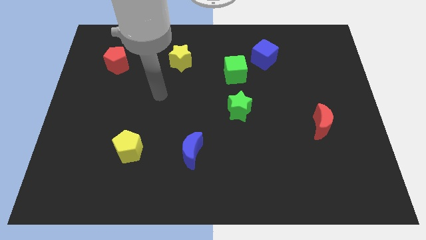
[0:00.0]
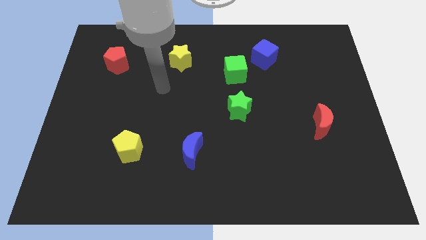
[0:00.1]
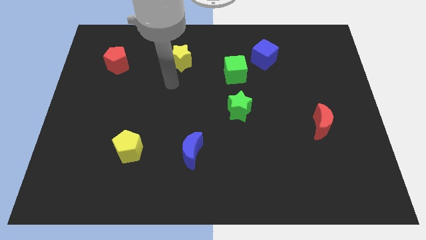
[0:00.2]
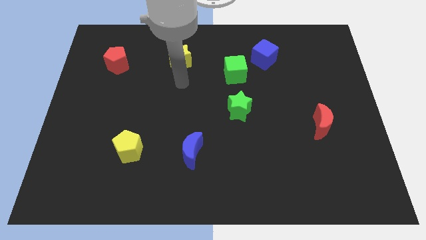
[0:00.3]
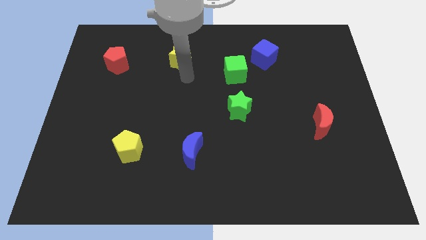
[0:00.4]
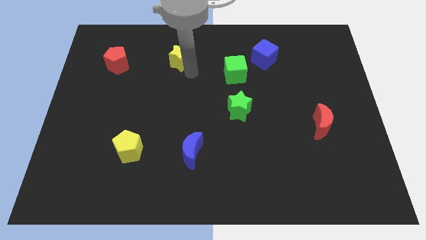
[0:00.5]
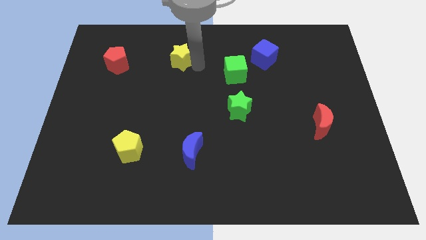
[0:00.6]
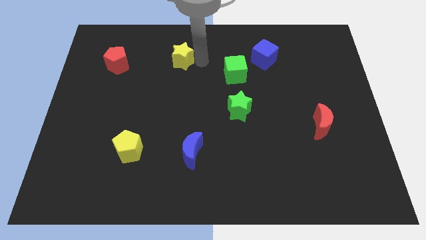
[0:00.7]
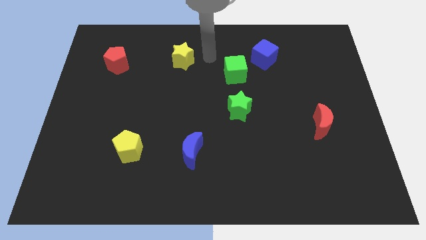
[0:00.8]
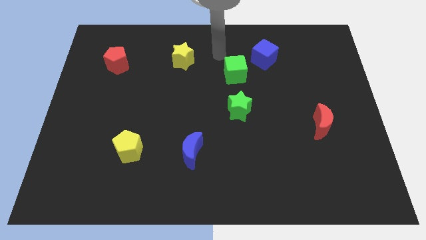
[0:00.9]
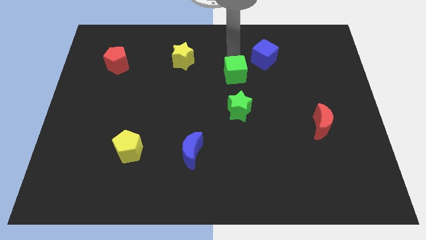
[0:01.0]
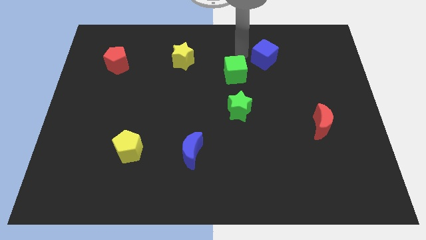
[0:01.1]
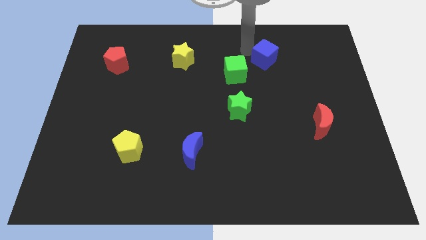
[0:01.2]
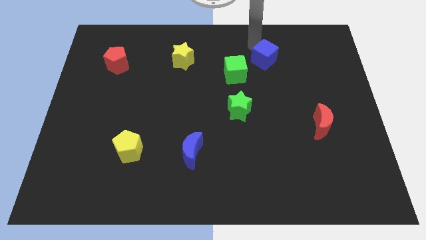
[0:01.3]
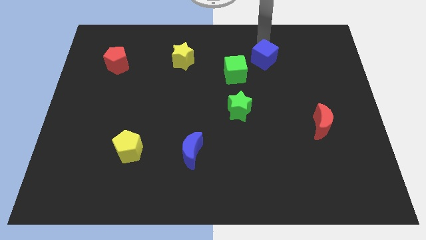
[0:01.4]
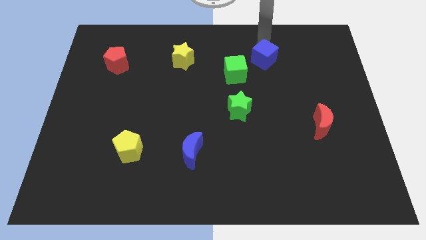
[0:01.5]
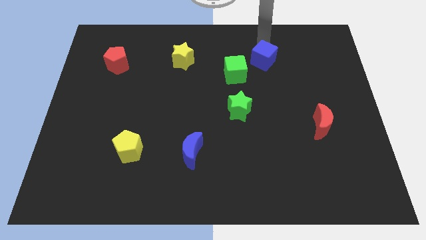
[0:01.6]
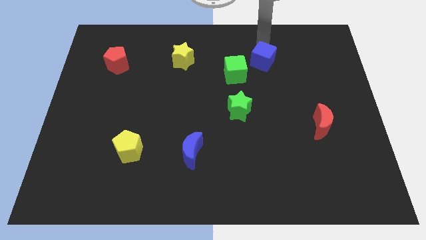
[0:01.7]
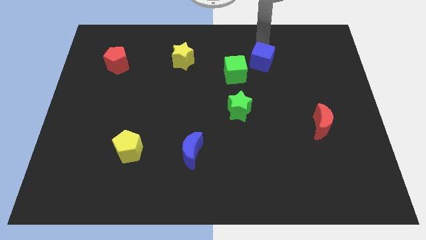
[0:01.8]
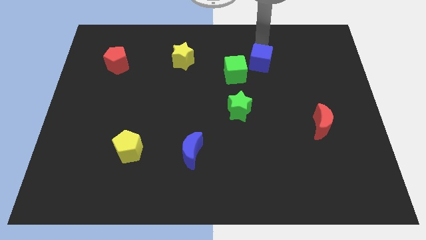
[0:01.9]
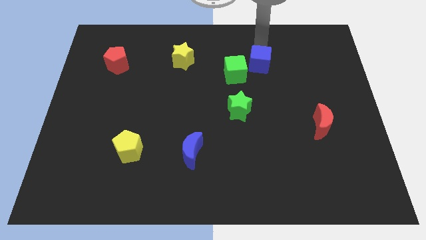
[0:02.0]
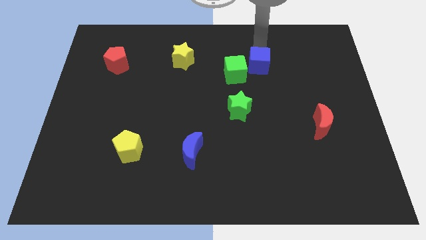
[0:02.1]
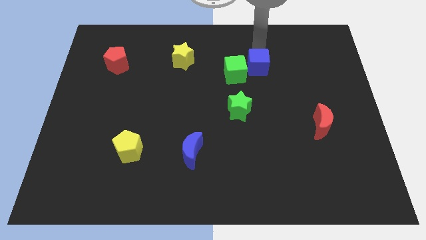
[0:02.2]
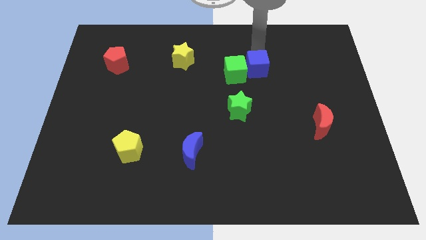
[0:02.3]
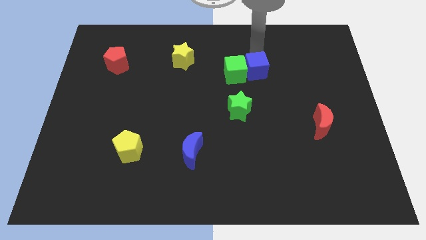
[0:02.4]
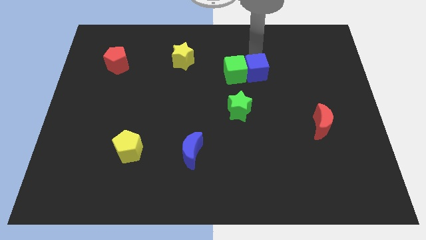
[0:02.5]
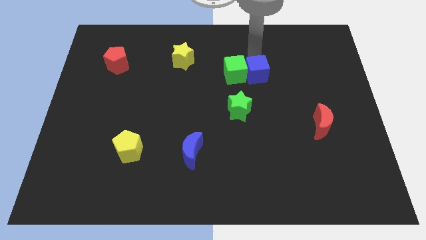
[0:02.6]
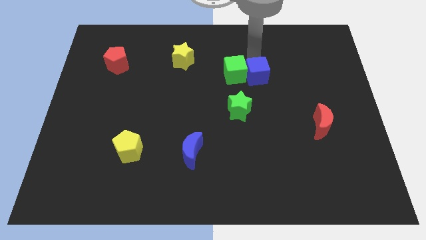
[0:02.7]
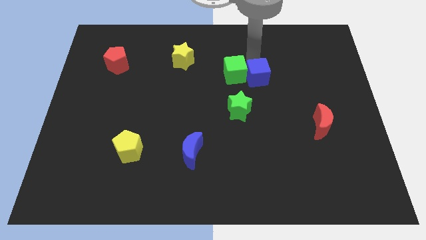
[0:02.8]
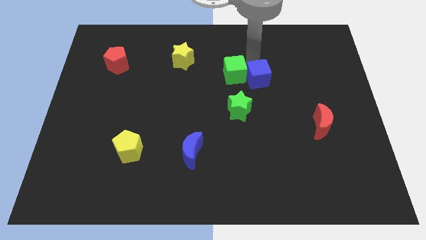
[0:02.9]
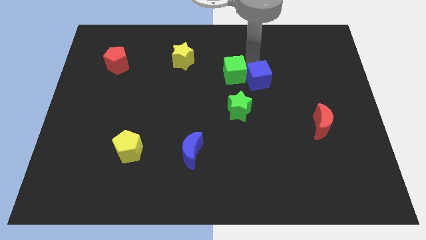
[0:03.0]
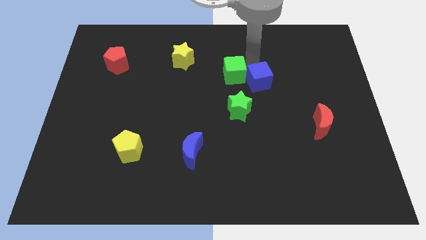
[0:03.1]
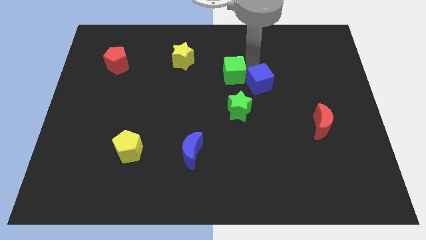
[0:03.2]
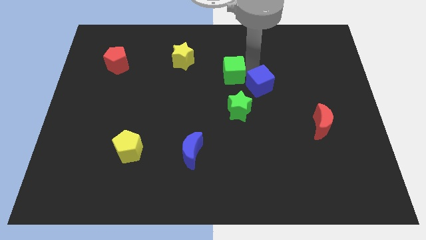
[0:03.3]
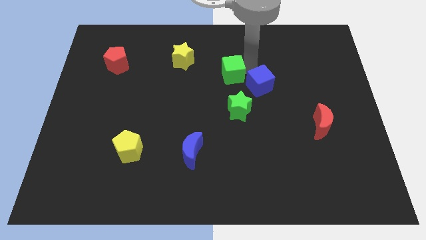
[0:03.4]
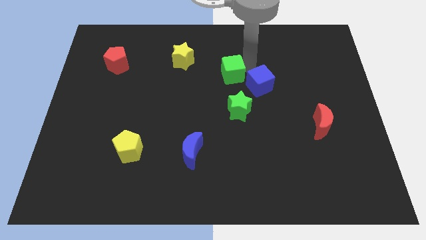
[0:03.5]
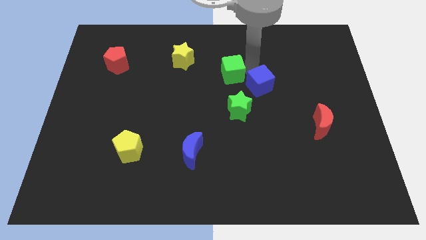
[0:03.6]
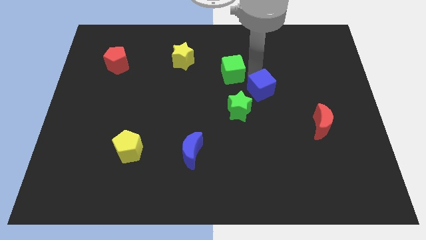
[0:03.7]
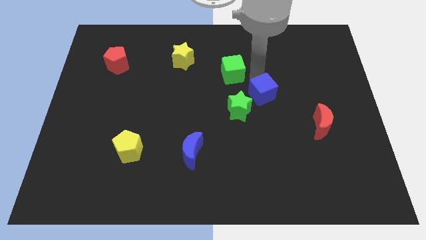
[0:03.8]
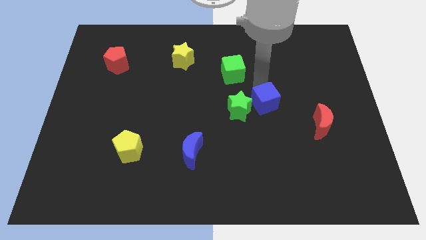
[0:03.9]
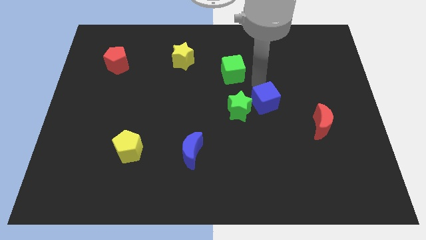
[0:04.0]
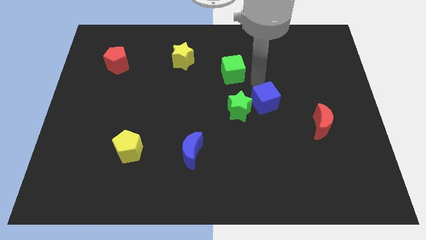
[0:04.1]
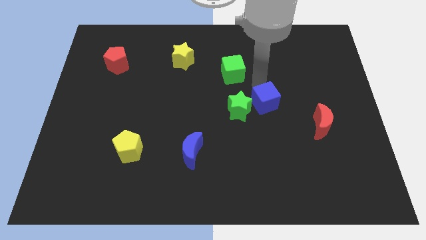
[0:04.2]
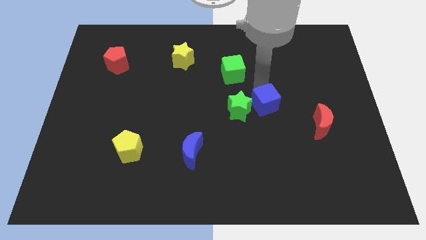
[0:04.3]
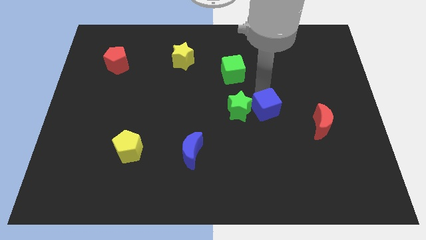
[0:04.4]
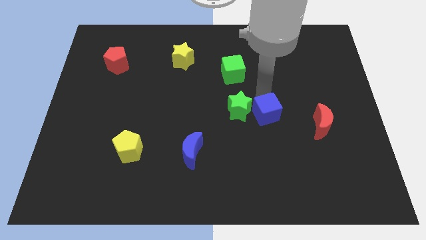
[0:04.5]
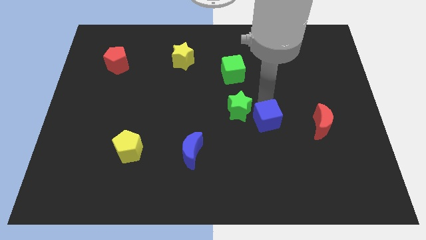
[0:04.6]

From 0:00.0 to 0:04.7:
slide the blue cube downwards

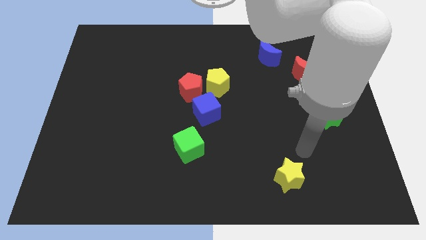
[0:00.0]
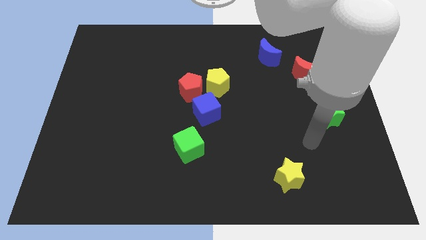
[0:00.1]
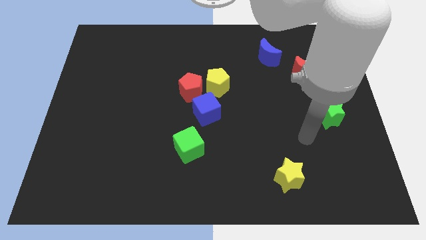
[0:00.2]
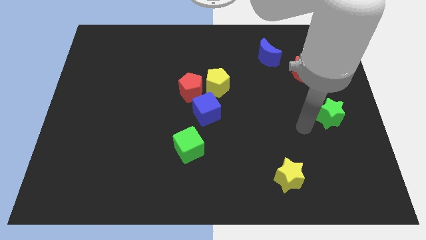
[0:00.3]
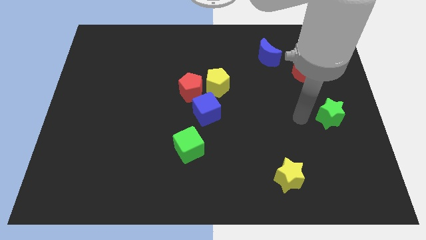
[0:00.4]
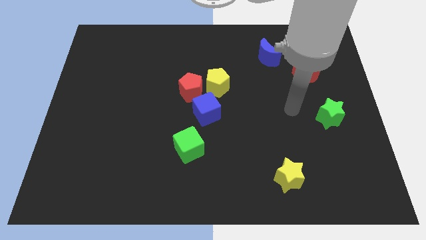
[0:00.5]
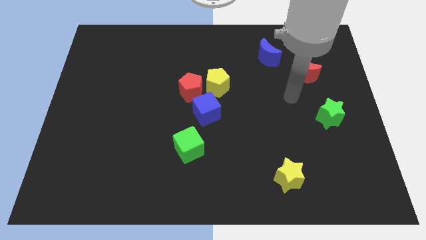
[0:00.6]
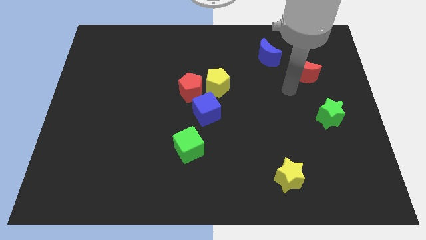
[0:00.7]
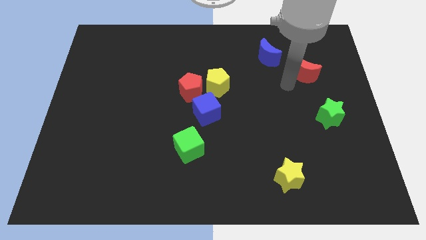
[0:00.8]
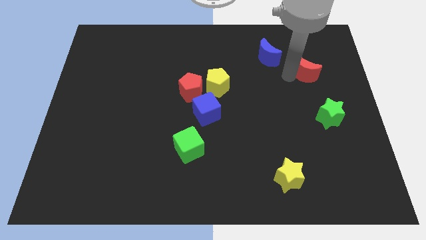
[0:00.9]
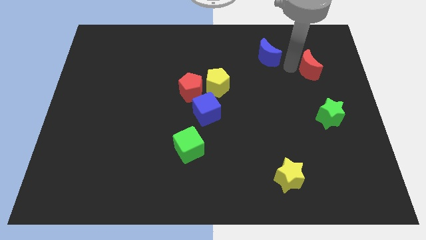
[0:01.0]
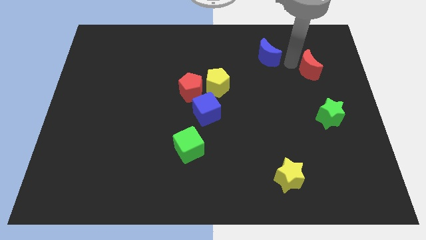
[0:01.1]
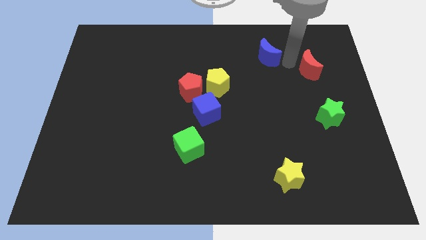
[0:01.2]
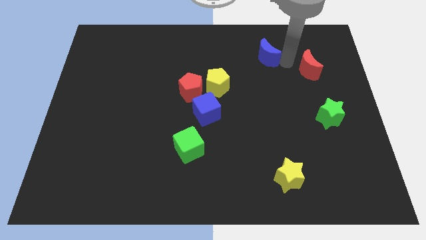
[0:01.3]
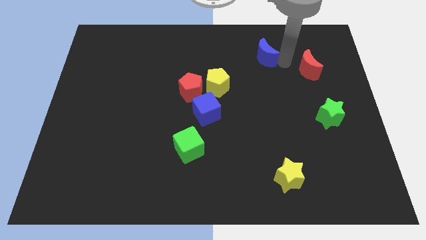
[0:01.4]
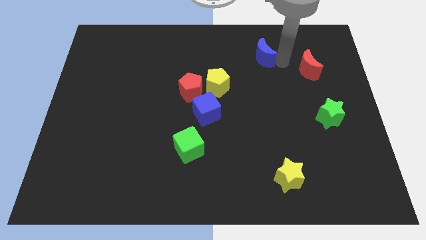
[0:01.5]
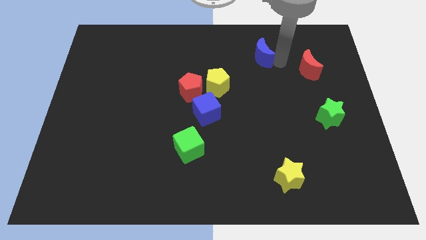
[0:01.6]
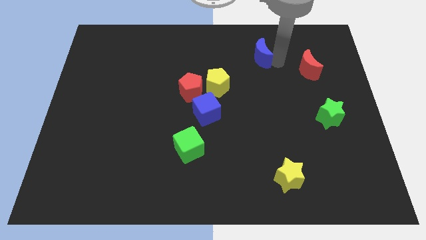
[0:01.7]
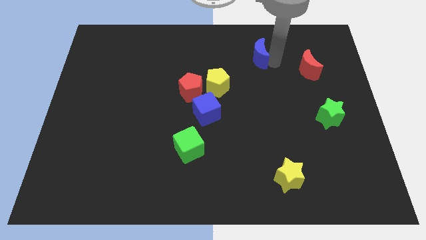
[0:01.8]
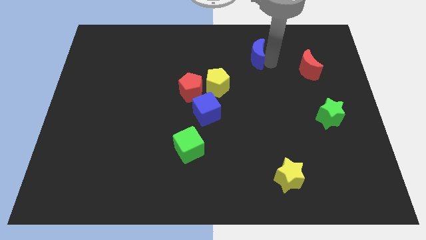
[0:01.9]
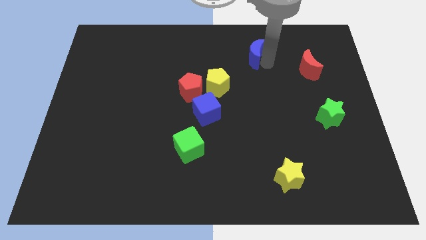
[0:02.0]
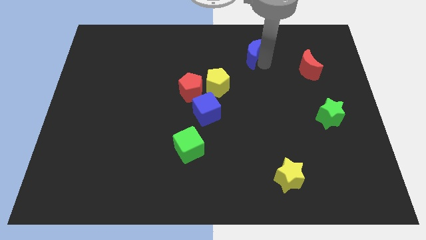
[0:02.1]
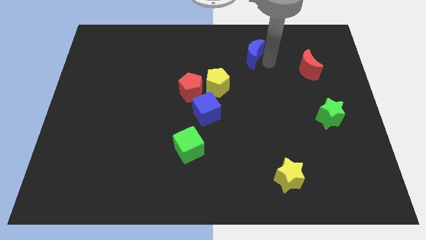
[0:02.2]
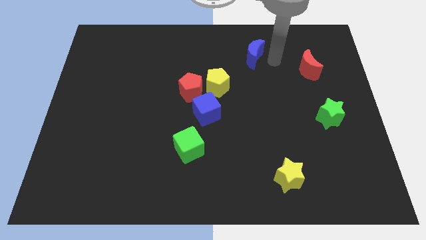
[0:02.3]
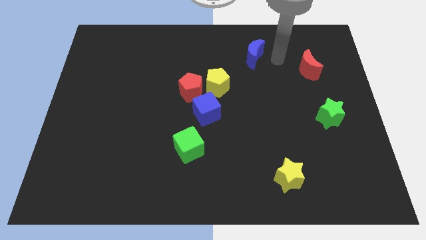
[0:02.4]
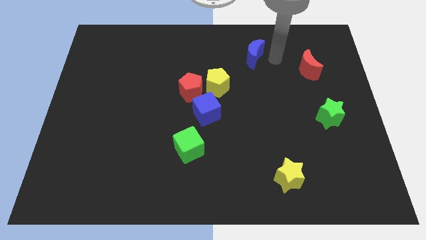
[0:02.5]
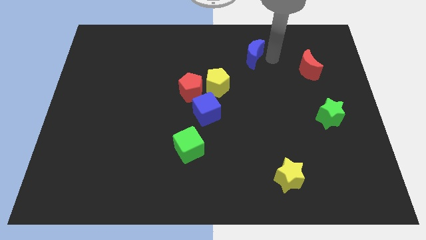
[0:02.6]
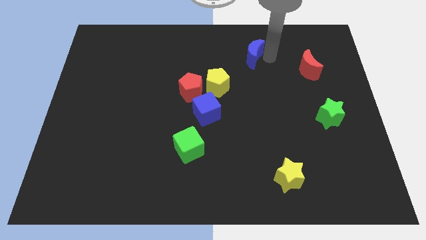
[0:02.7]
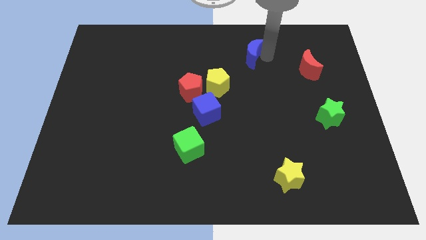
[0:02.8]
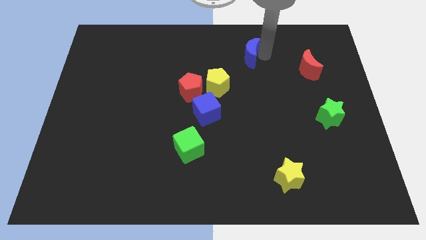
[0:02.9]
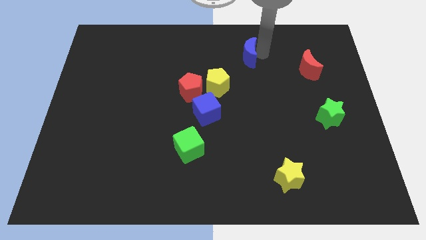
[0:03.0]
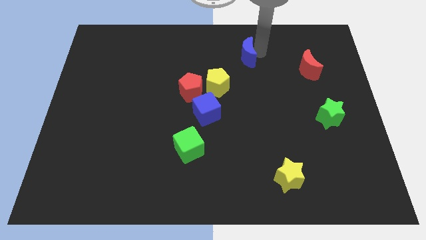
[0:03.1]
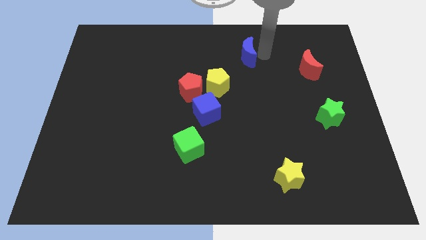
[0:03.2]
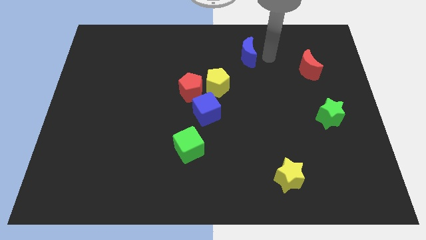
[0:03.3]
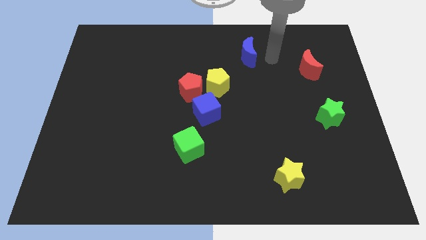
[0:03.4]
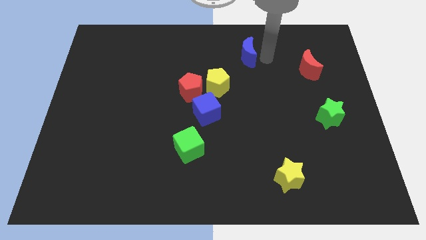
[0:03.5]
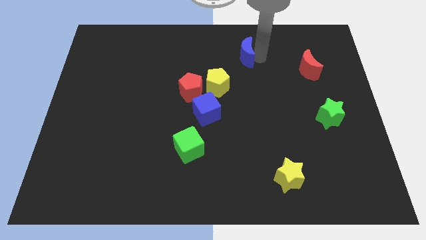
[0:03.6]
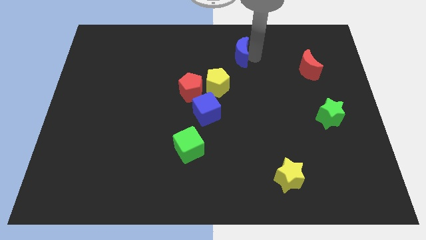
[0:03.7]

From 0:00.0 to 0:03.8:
slightly slide the blue moon left
